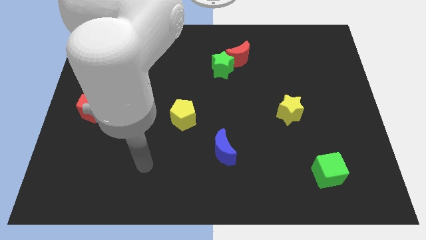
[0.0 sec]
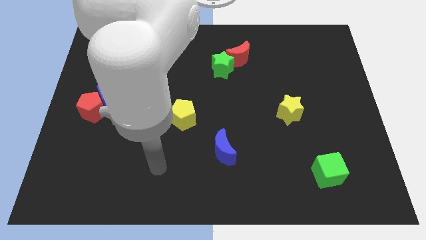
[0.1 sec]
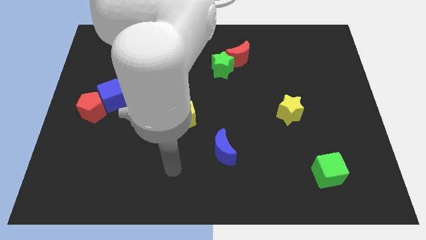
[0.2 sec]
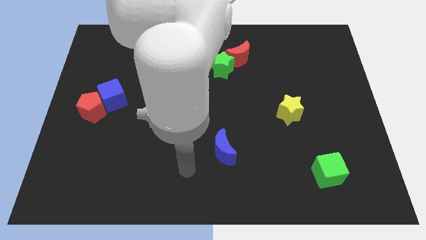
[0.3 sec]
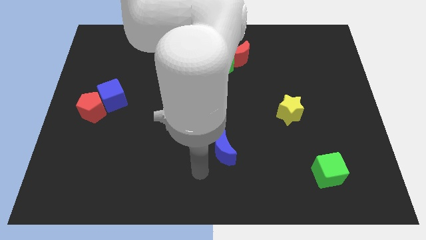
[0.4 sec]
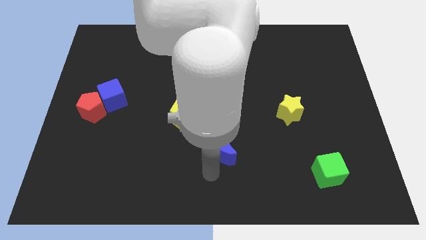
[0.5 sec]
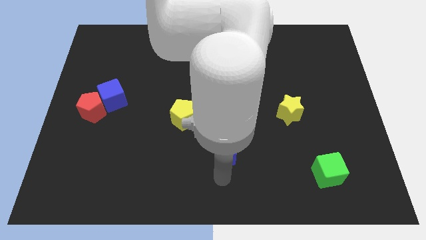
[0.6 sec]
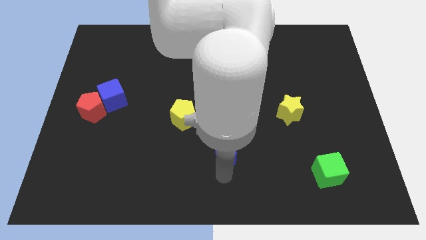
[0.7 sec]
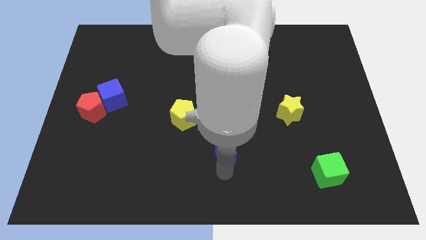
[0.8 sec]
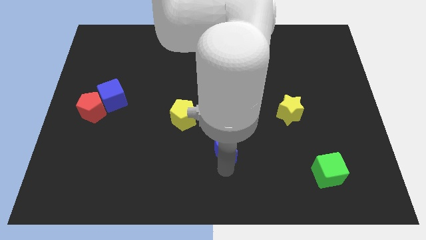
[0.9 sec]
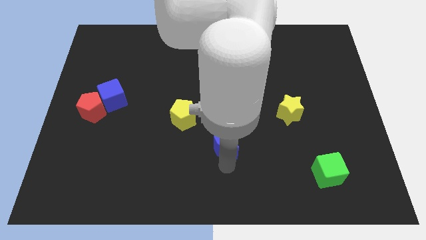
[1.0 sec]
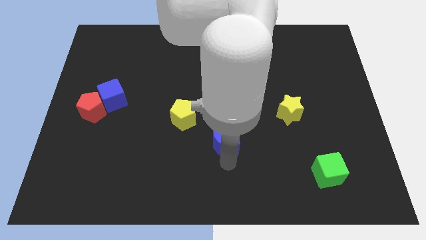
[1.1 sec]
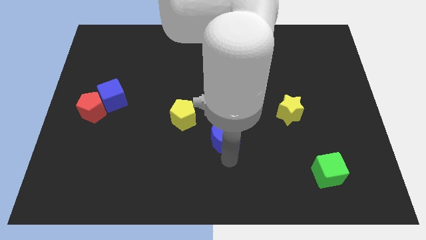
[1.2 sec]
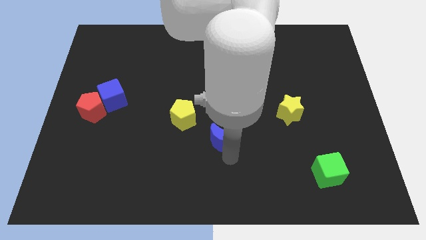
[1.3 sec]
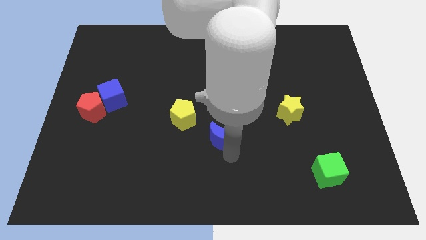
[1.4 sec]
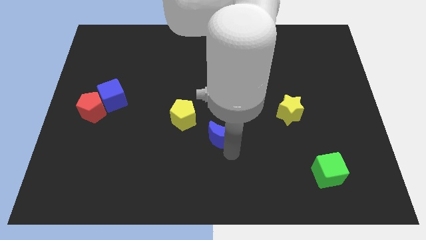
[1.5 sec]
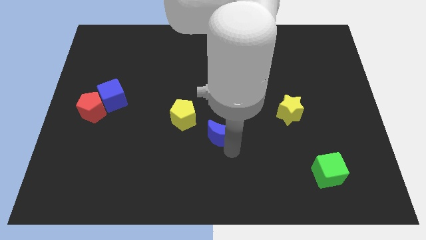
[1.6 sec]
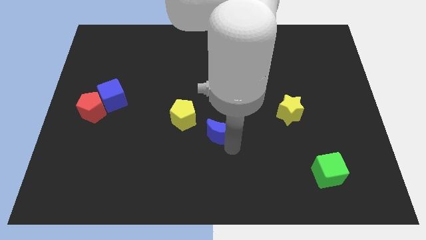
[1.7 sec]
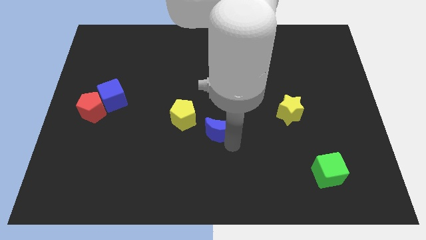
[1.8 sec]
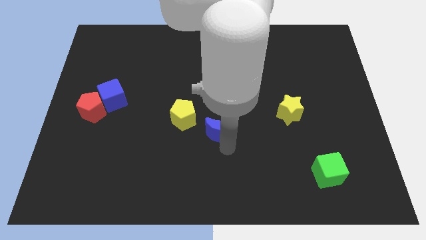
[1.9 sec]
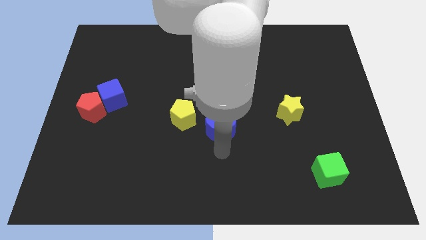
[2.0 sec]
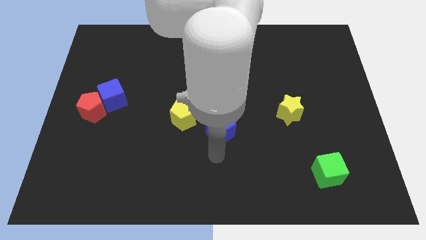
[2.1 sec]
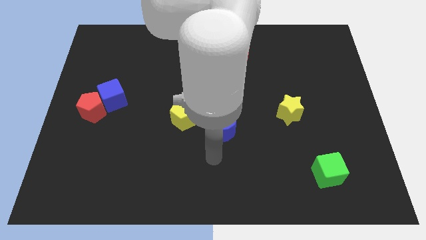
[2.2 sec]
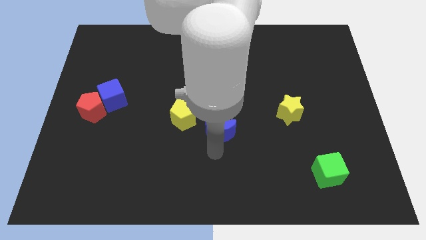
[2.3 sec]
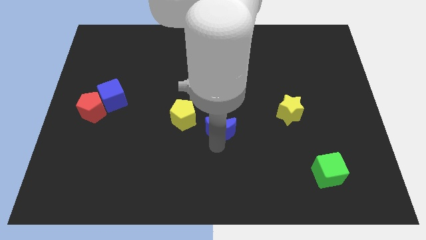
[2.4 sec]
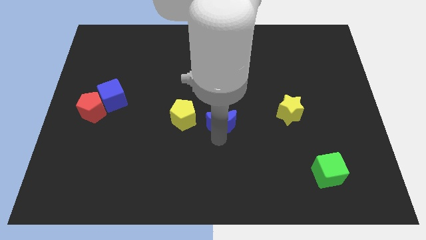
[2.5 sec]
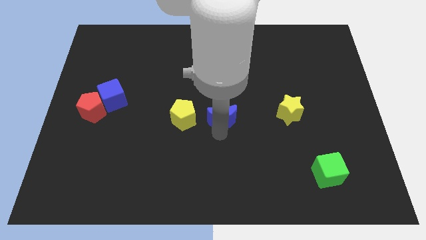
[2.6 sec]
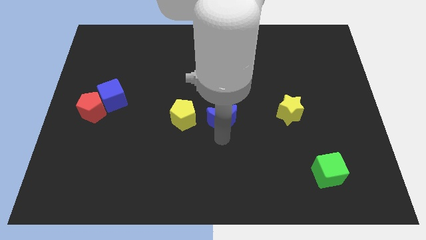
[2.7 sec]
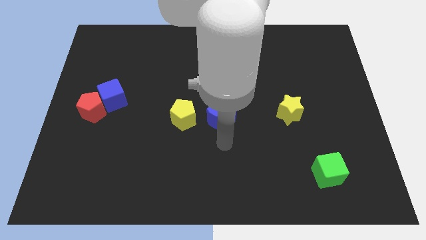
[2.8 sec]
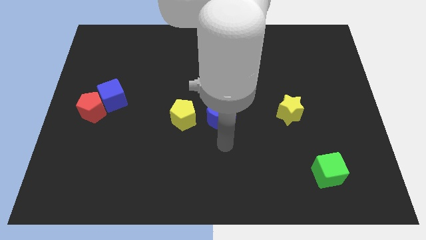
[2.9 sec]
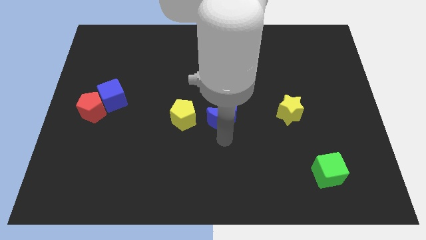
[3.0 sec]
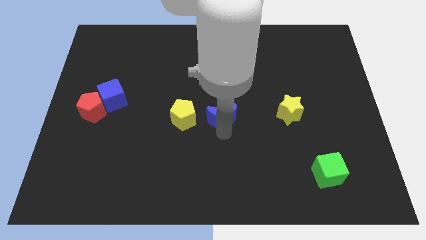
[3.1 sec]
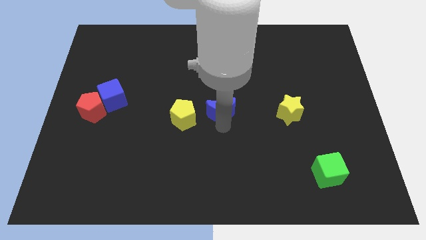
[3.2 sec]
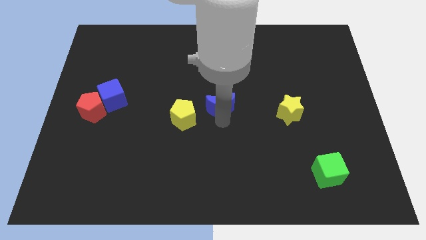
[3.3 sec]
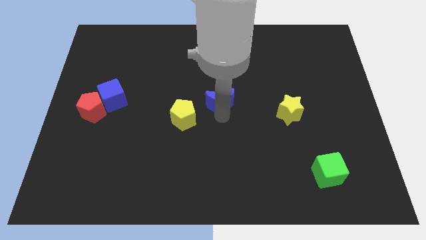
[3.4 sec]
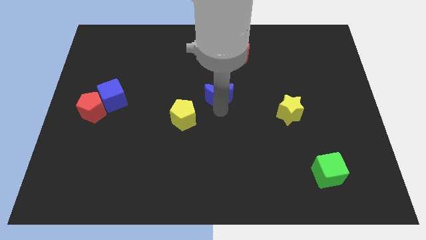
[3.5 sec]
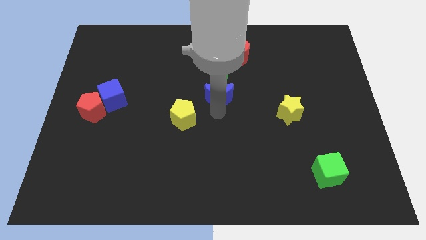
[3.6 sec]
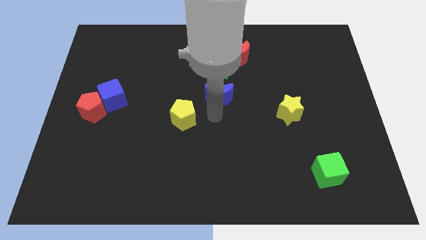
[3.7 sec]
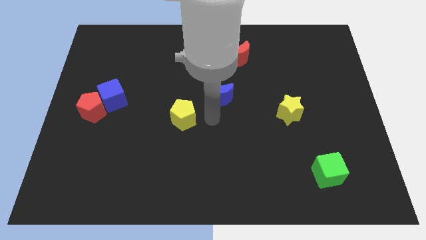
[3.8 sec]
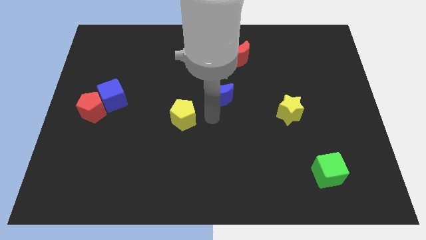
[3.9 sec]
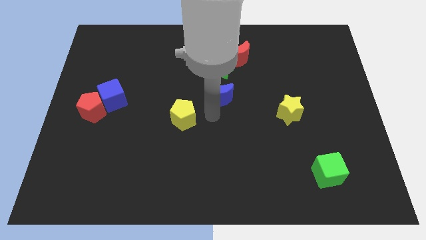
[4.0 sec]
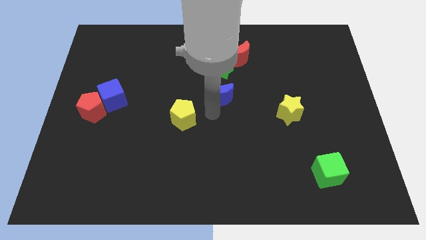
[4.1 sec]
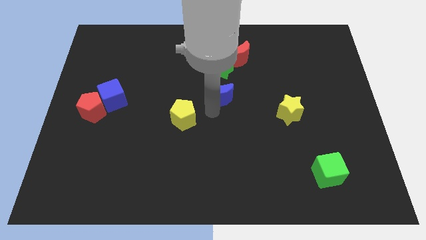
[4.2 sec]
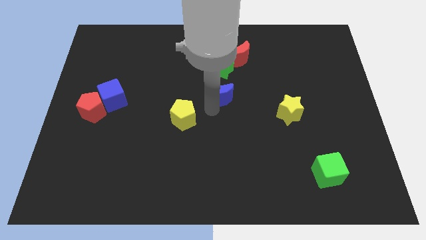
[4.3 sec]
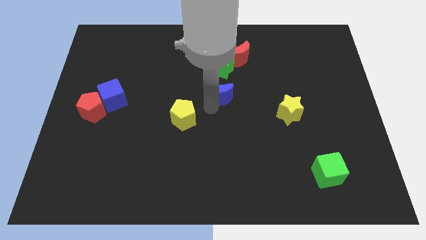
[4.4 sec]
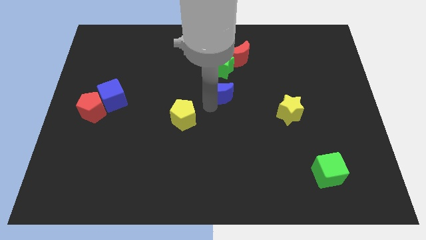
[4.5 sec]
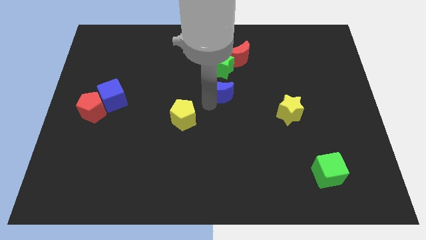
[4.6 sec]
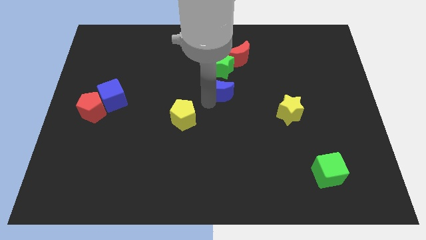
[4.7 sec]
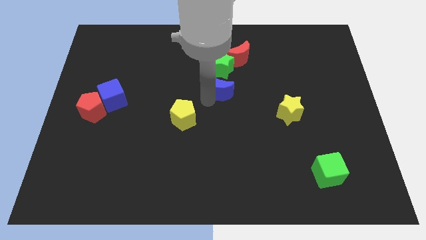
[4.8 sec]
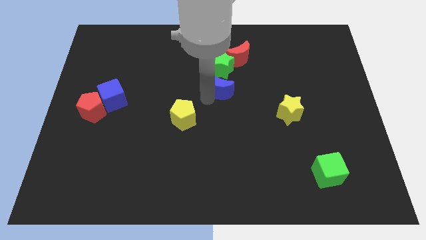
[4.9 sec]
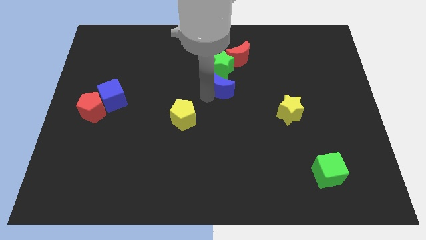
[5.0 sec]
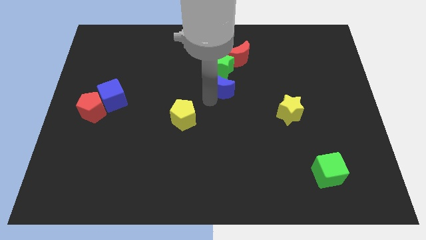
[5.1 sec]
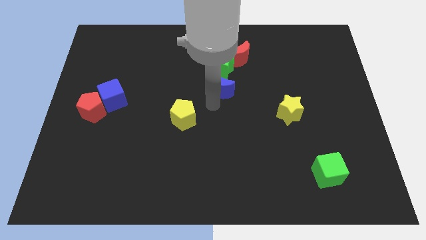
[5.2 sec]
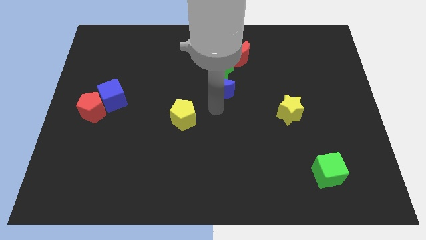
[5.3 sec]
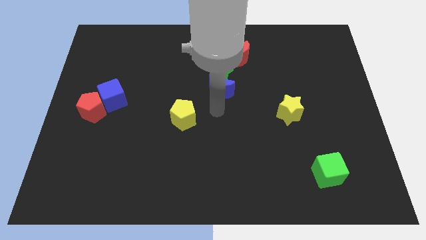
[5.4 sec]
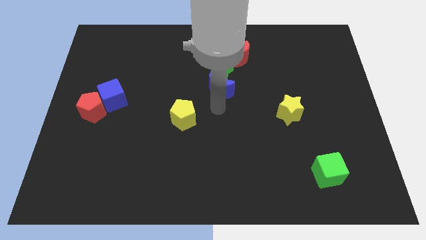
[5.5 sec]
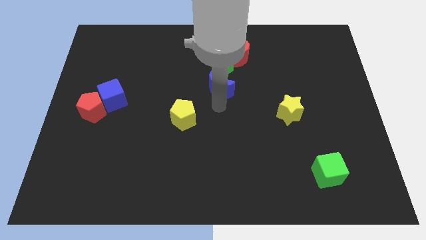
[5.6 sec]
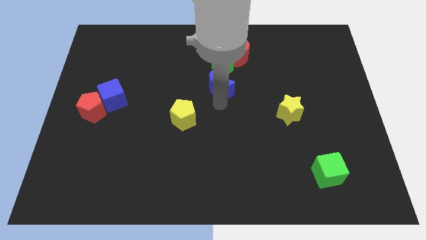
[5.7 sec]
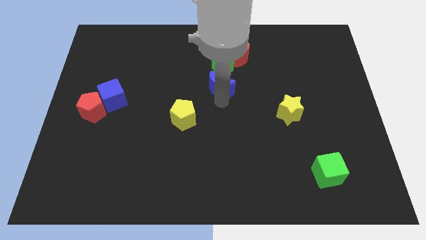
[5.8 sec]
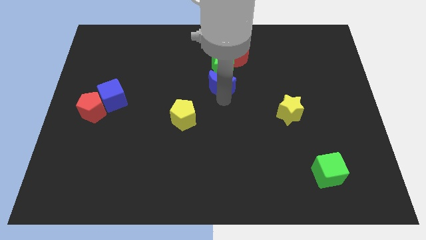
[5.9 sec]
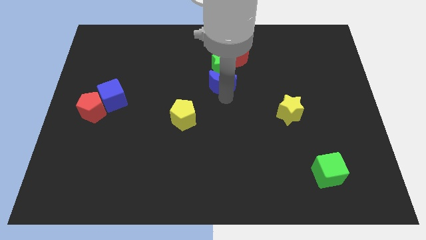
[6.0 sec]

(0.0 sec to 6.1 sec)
slide the blue moon towards the green star

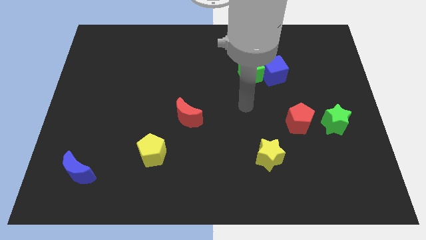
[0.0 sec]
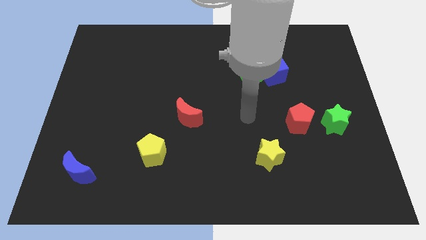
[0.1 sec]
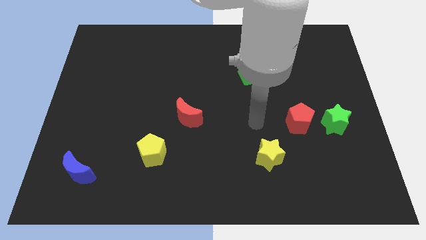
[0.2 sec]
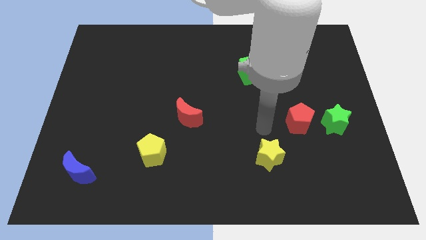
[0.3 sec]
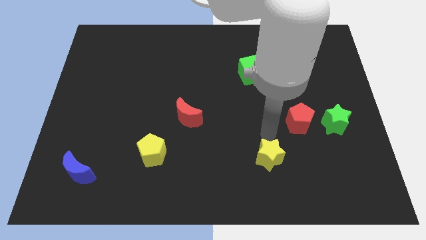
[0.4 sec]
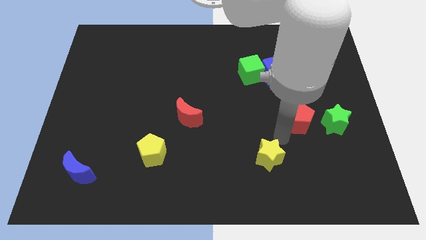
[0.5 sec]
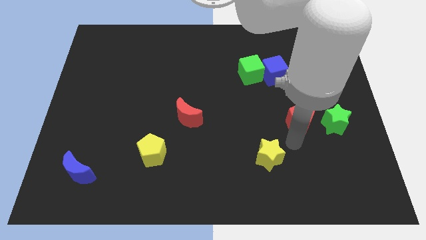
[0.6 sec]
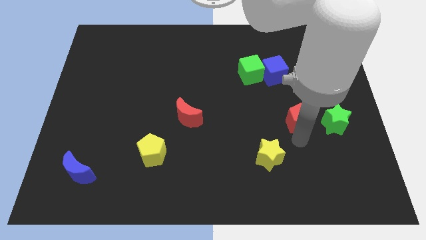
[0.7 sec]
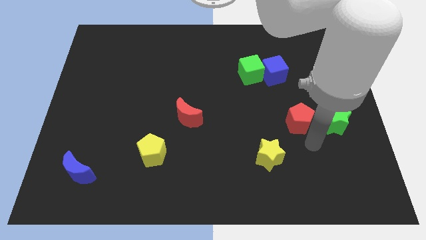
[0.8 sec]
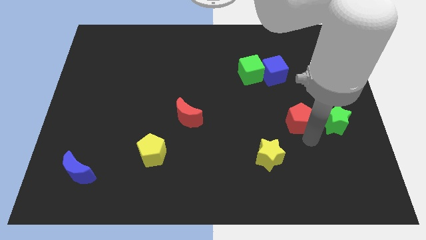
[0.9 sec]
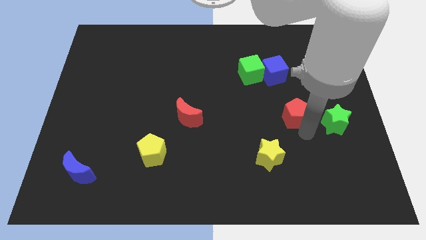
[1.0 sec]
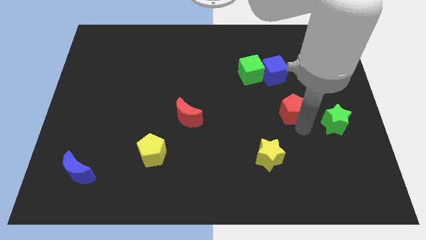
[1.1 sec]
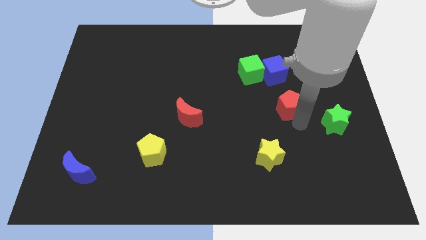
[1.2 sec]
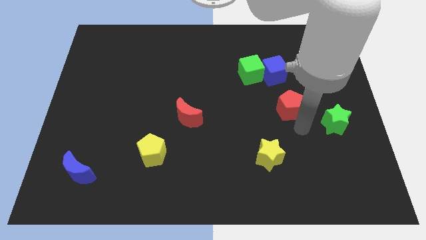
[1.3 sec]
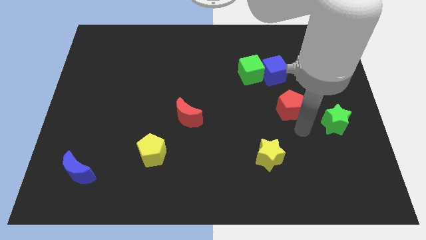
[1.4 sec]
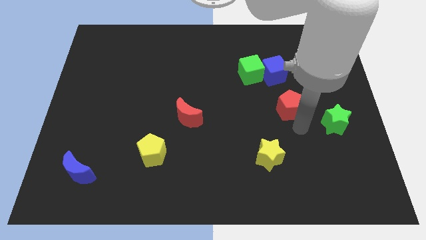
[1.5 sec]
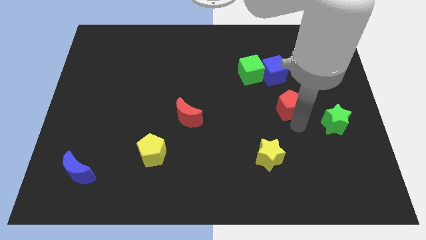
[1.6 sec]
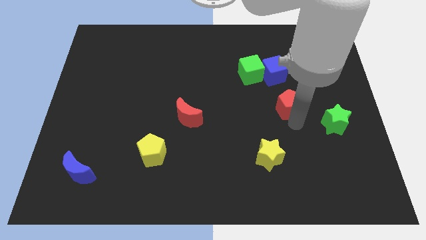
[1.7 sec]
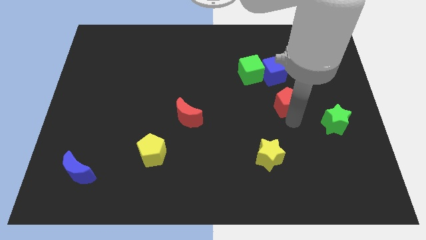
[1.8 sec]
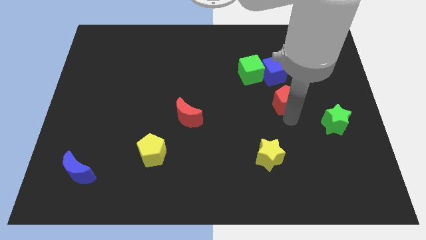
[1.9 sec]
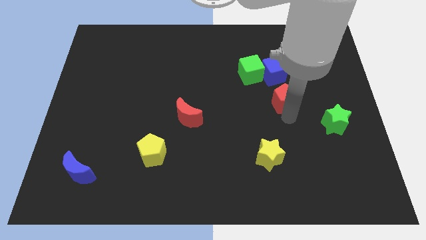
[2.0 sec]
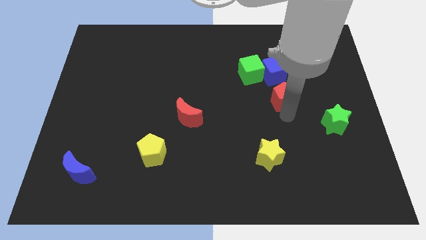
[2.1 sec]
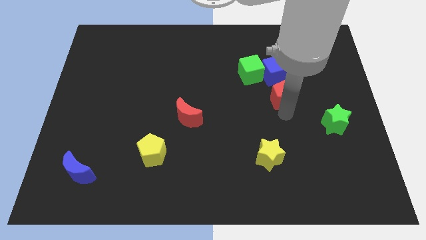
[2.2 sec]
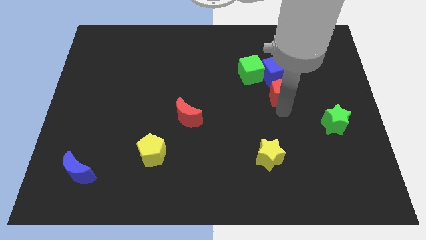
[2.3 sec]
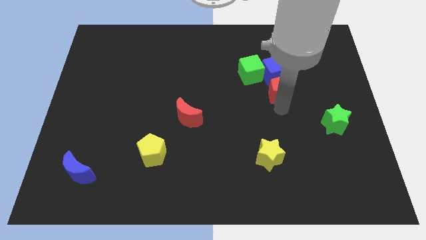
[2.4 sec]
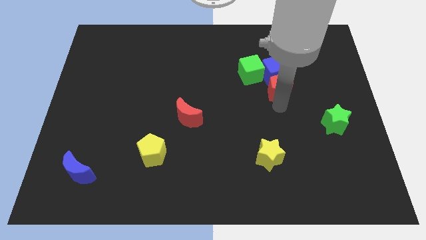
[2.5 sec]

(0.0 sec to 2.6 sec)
push the red pentagon towards the blue cube
